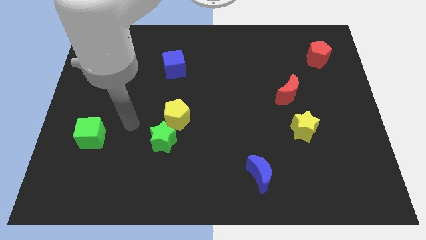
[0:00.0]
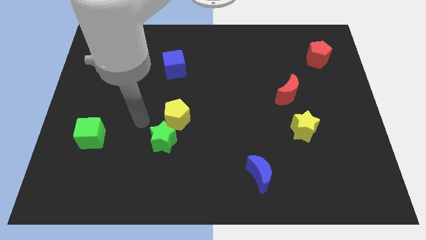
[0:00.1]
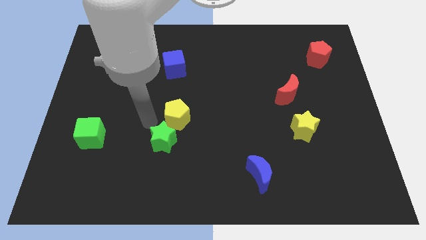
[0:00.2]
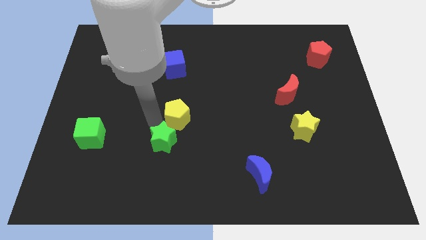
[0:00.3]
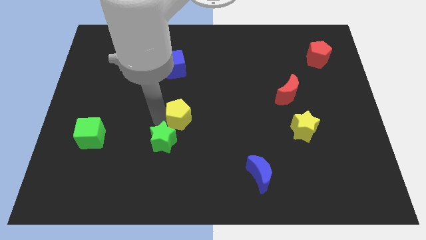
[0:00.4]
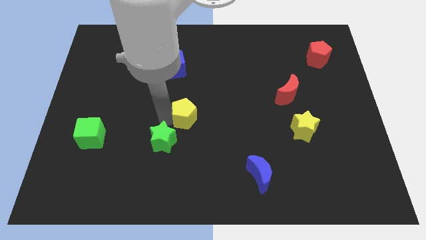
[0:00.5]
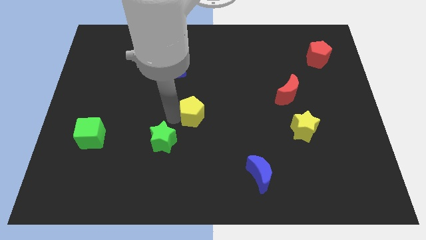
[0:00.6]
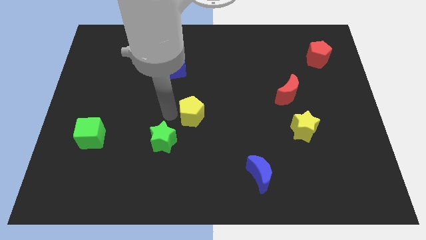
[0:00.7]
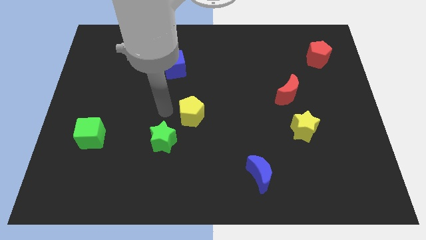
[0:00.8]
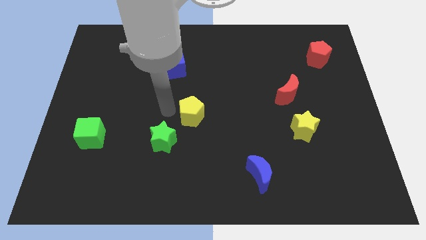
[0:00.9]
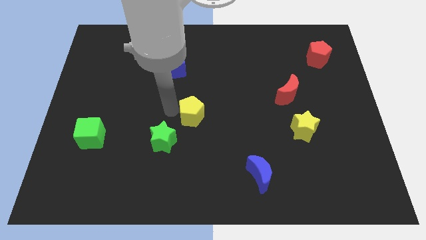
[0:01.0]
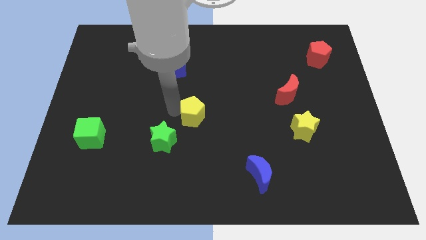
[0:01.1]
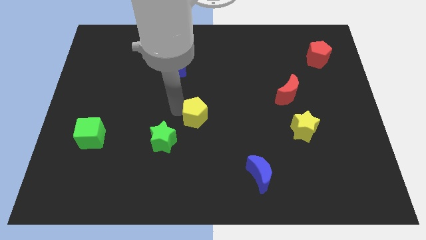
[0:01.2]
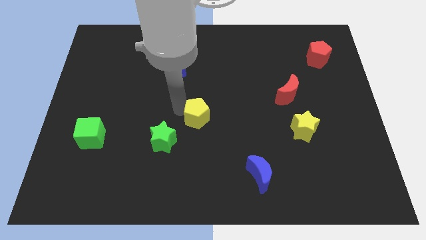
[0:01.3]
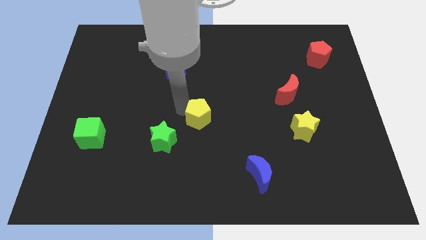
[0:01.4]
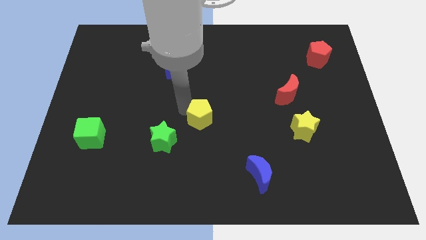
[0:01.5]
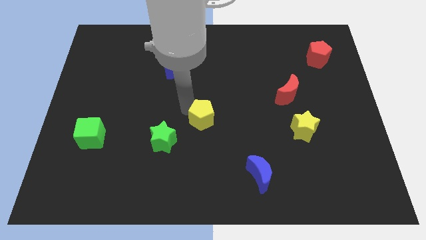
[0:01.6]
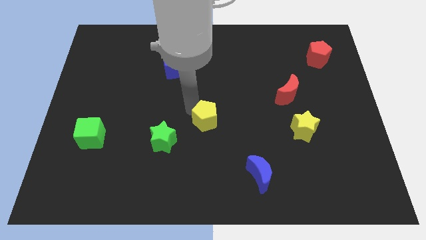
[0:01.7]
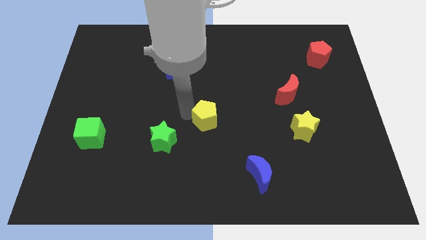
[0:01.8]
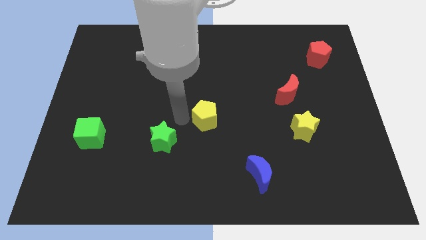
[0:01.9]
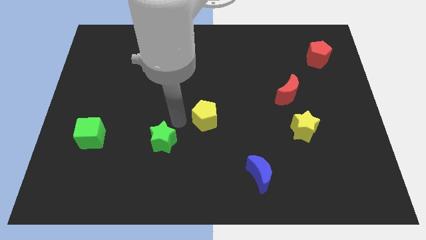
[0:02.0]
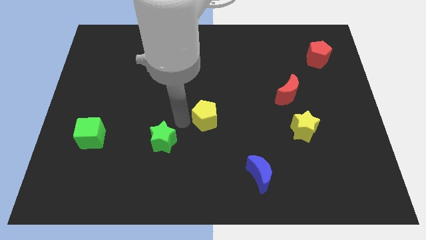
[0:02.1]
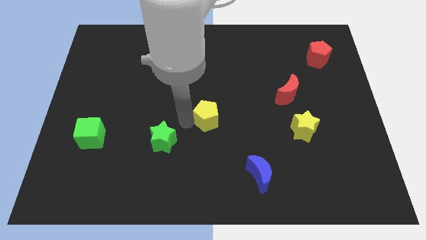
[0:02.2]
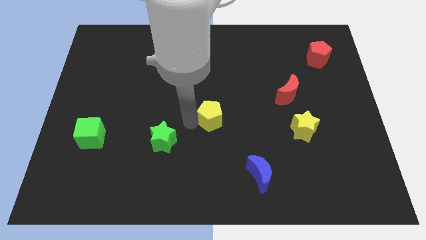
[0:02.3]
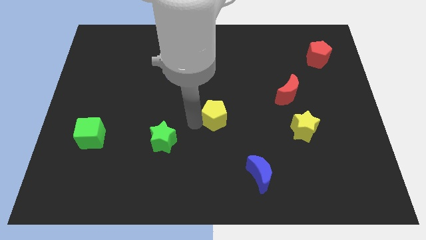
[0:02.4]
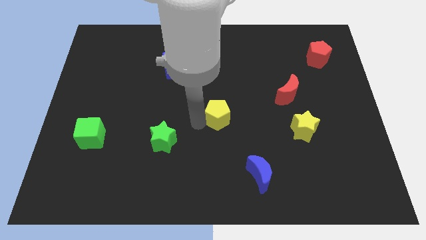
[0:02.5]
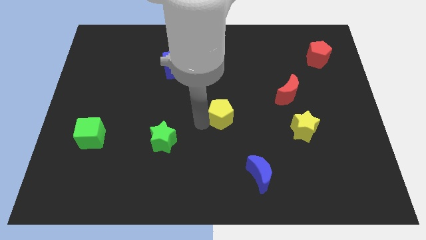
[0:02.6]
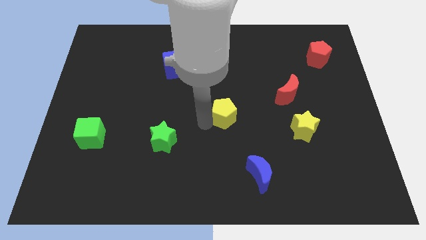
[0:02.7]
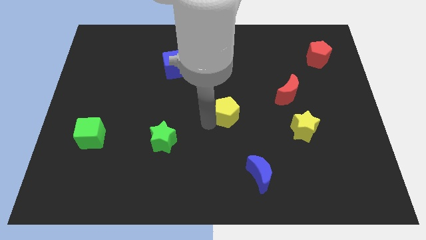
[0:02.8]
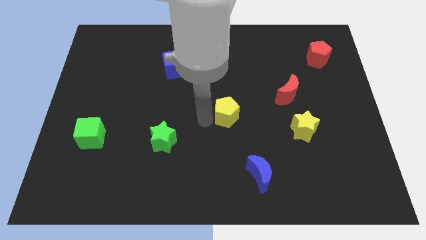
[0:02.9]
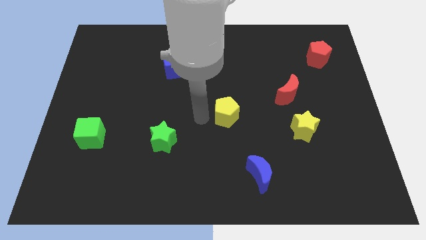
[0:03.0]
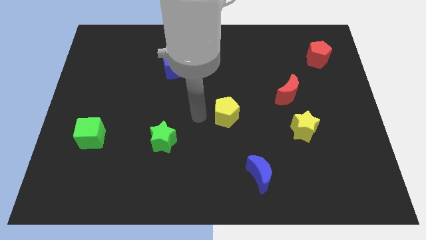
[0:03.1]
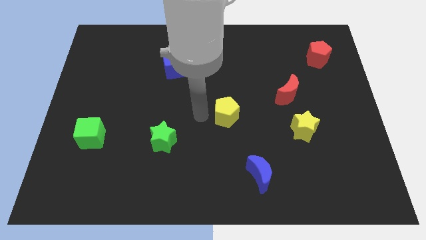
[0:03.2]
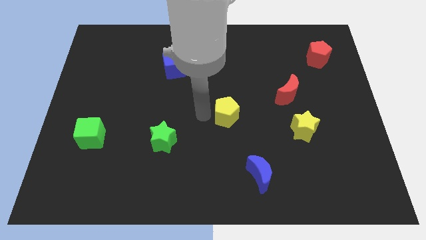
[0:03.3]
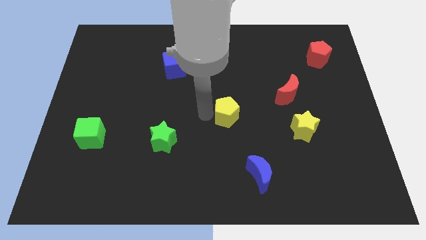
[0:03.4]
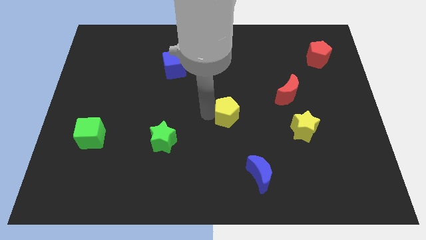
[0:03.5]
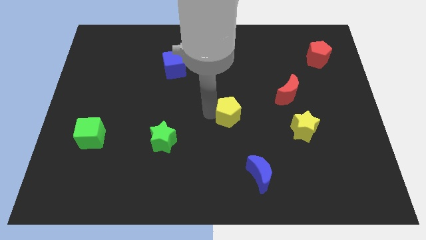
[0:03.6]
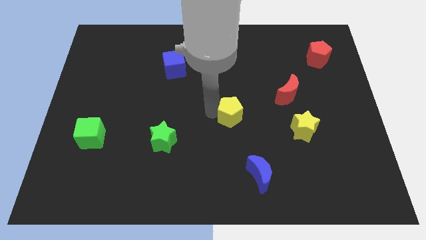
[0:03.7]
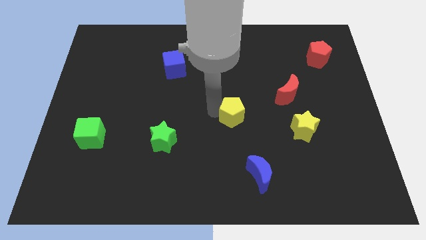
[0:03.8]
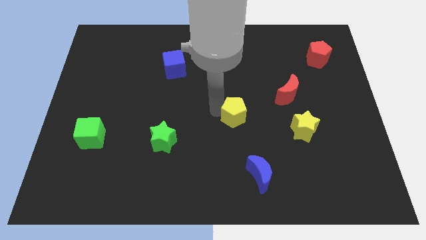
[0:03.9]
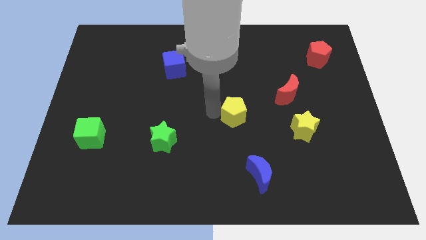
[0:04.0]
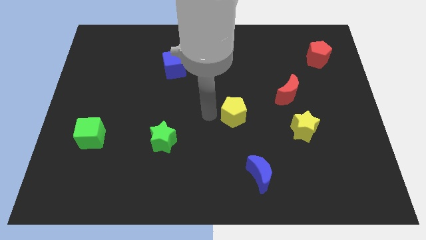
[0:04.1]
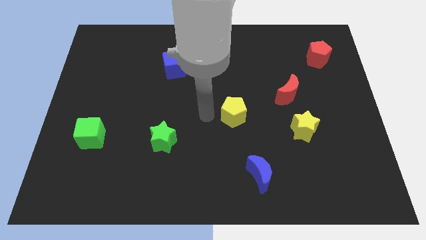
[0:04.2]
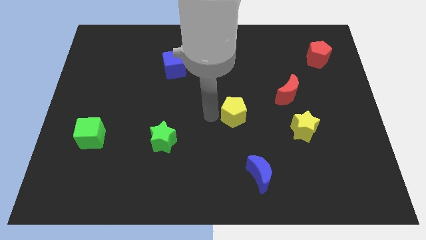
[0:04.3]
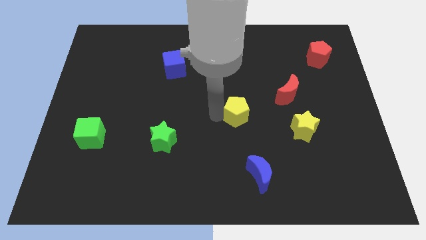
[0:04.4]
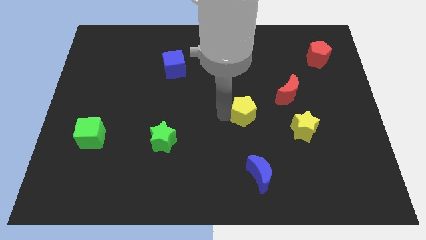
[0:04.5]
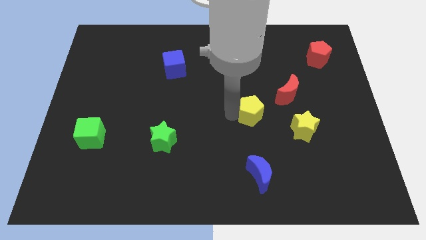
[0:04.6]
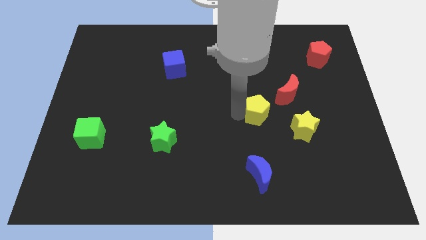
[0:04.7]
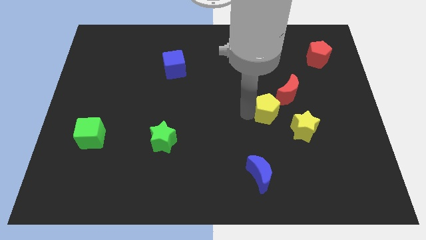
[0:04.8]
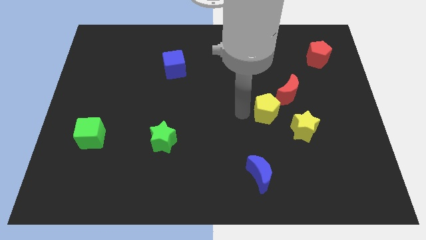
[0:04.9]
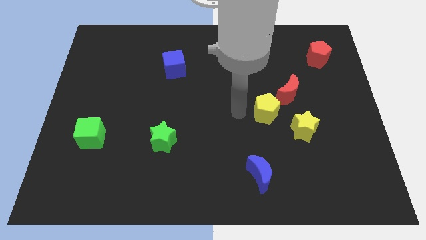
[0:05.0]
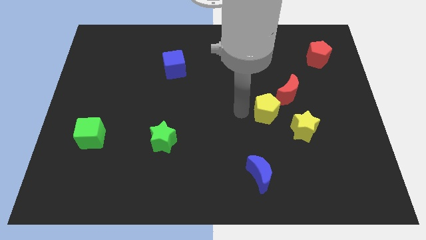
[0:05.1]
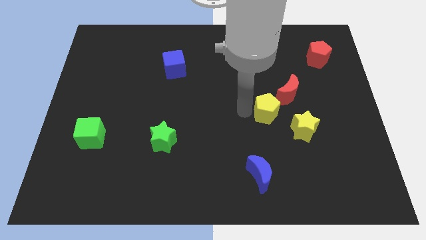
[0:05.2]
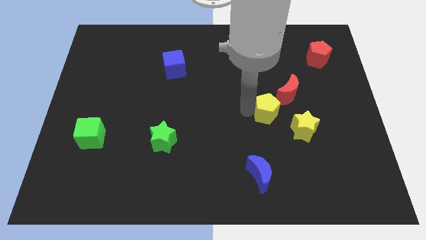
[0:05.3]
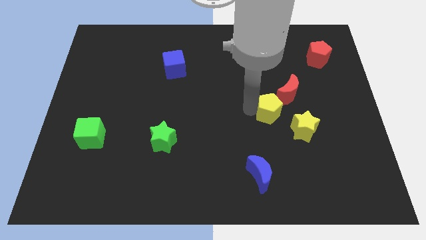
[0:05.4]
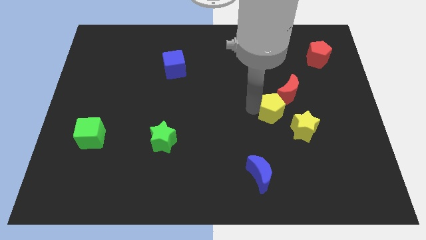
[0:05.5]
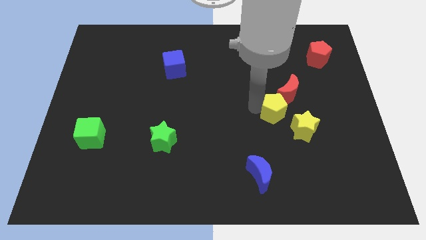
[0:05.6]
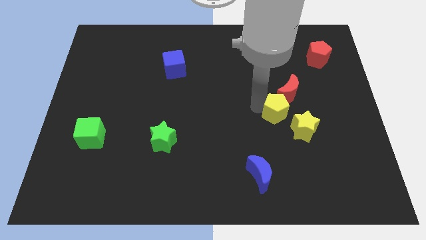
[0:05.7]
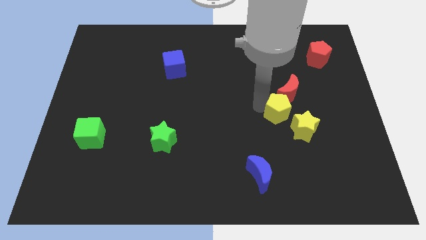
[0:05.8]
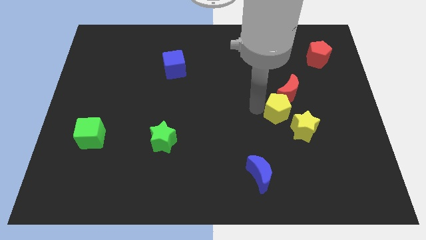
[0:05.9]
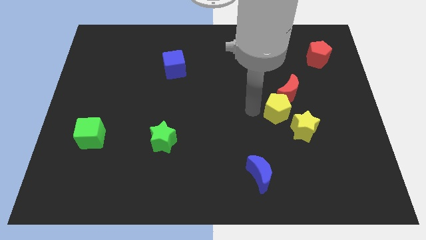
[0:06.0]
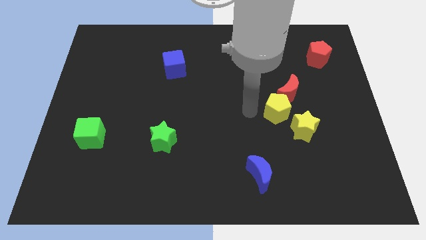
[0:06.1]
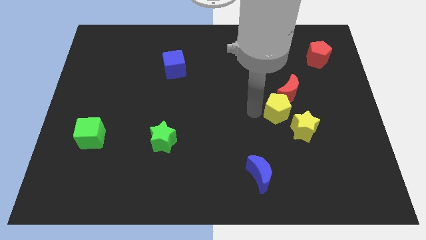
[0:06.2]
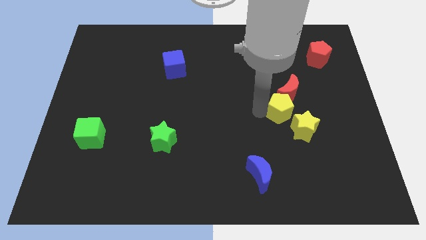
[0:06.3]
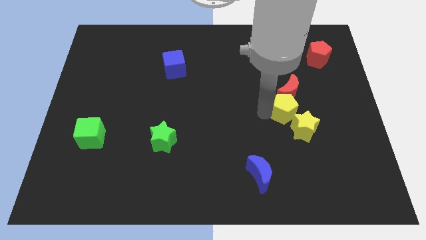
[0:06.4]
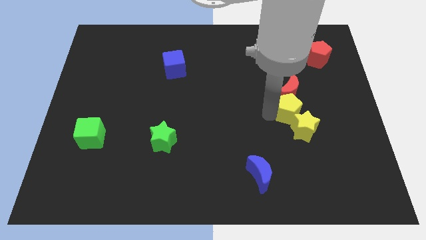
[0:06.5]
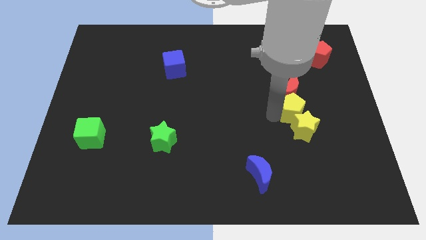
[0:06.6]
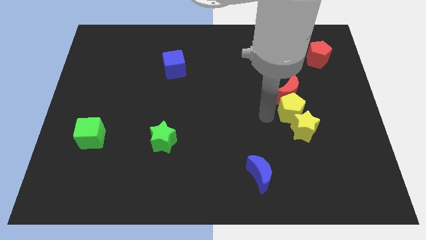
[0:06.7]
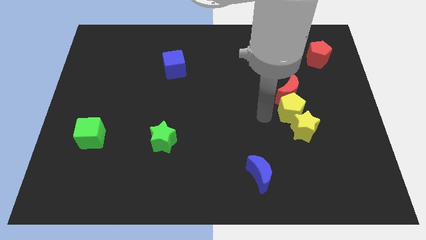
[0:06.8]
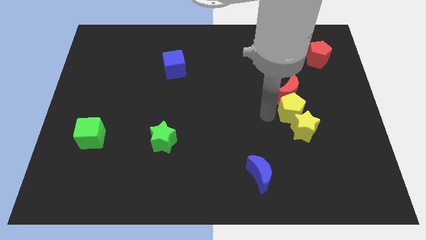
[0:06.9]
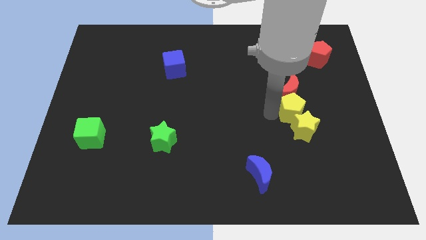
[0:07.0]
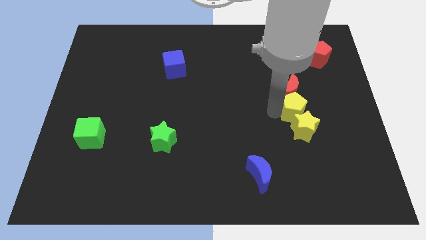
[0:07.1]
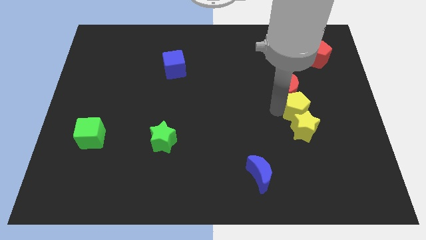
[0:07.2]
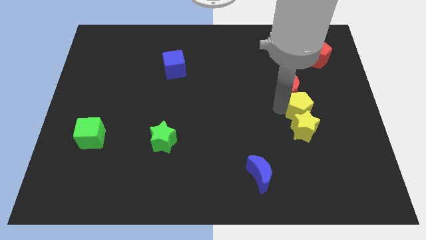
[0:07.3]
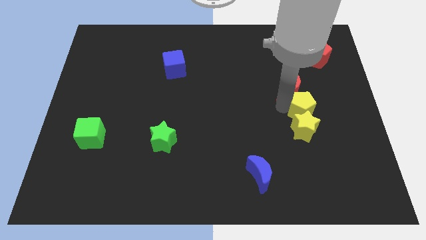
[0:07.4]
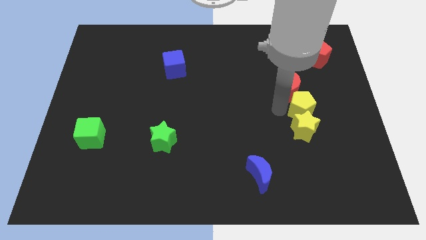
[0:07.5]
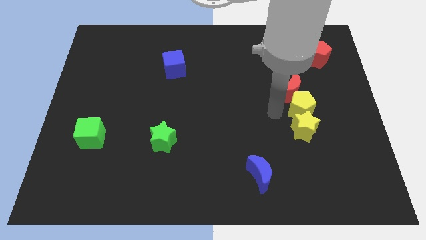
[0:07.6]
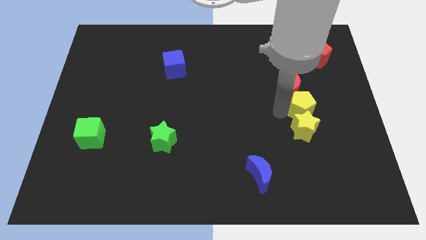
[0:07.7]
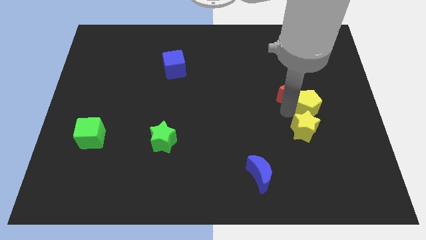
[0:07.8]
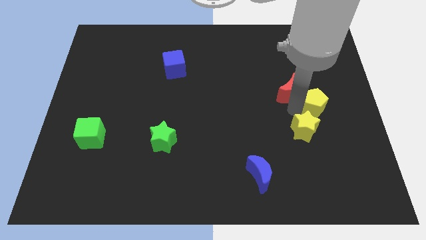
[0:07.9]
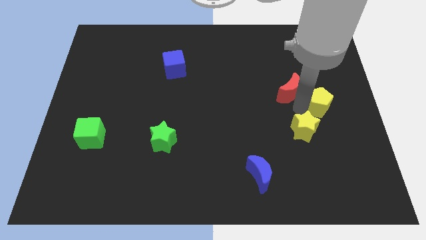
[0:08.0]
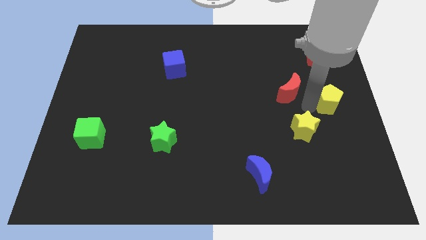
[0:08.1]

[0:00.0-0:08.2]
slide the yellow pentagon to the right side
